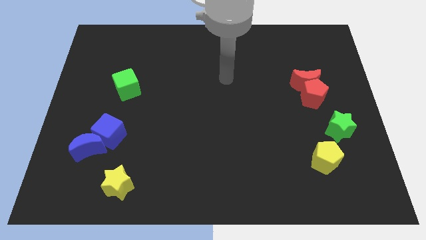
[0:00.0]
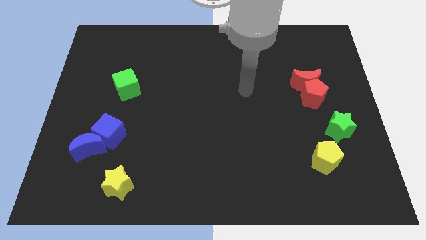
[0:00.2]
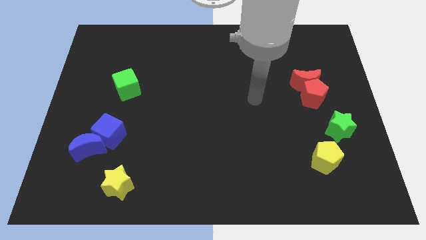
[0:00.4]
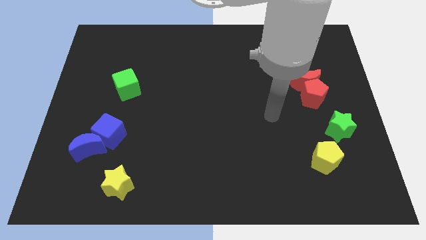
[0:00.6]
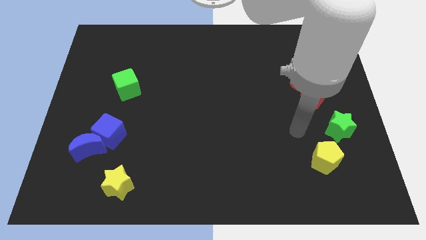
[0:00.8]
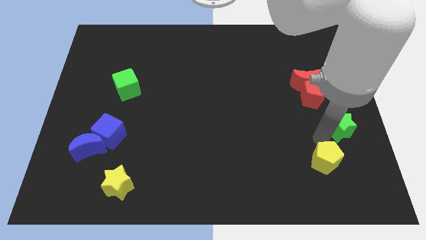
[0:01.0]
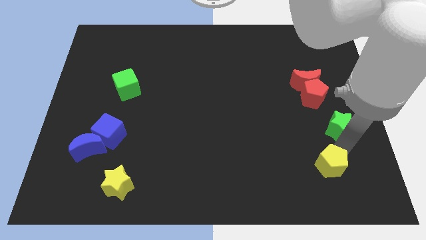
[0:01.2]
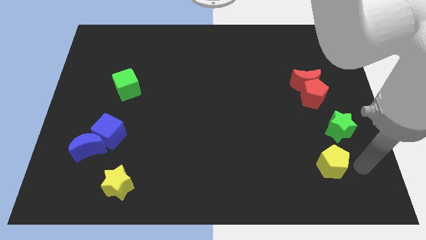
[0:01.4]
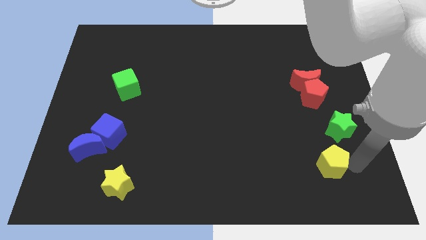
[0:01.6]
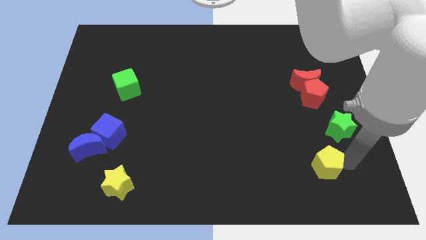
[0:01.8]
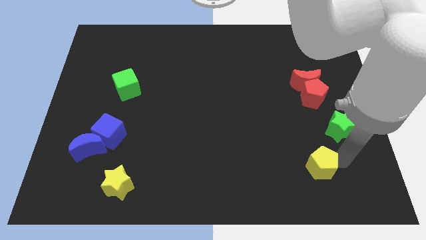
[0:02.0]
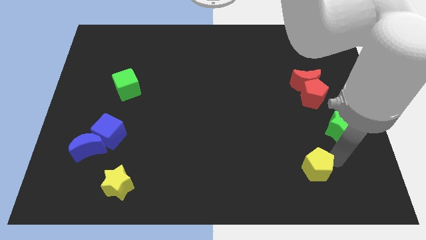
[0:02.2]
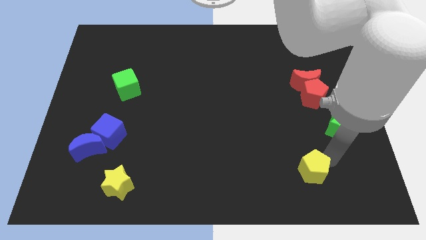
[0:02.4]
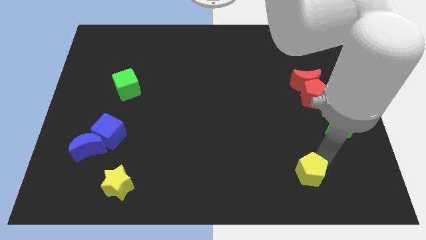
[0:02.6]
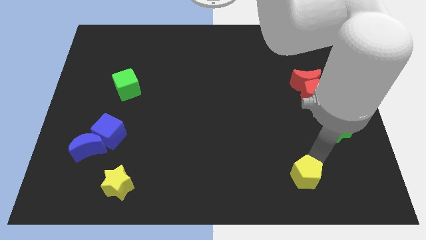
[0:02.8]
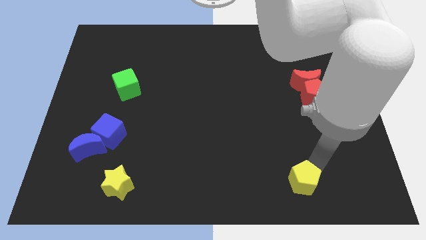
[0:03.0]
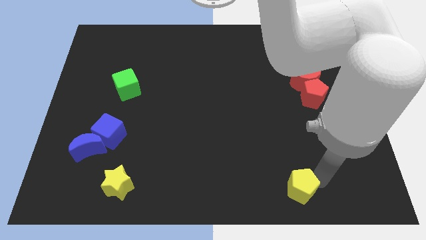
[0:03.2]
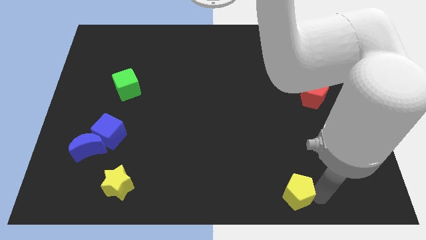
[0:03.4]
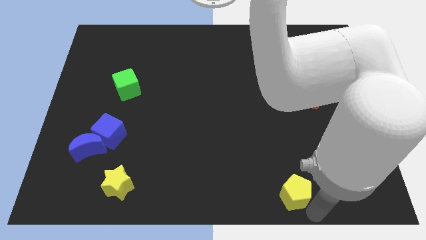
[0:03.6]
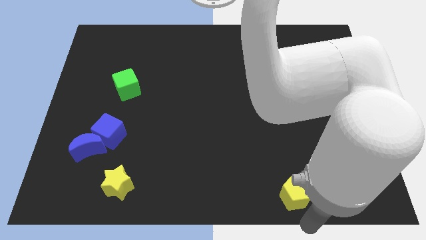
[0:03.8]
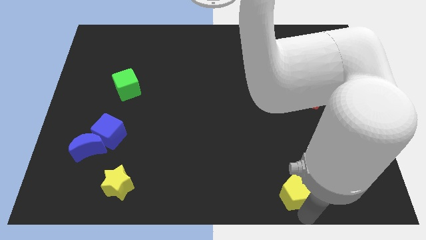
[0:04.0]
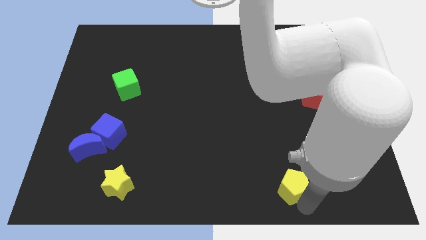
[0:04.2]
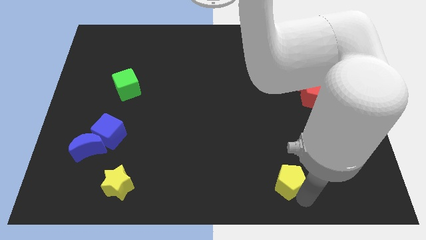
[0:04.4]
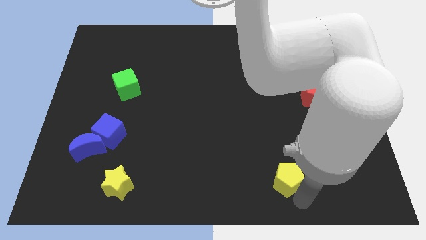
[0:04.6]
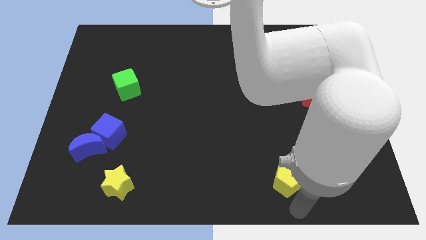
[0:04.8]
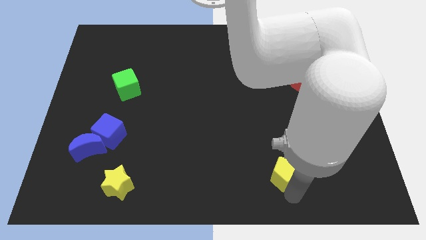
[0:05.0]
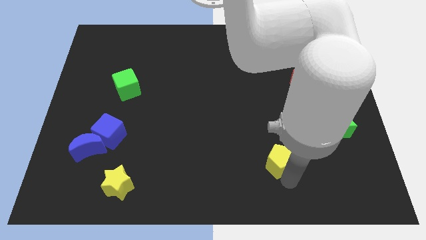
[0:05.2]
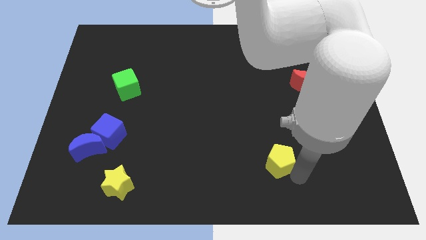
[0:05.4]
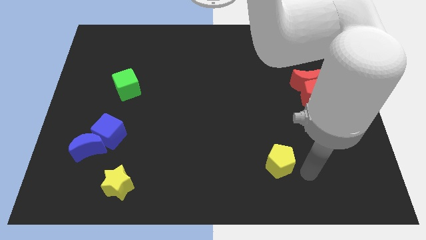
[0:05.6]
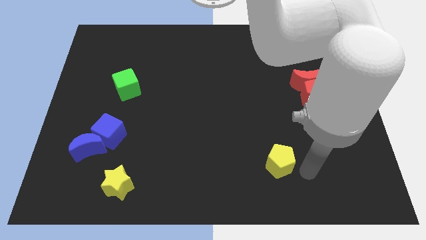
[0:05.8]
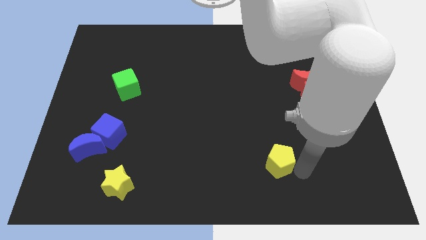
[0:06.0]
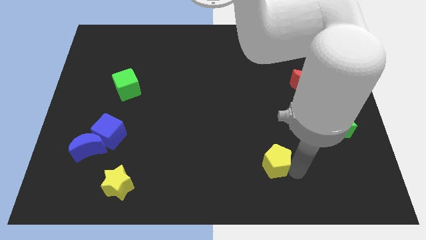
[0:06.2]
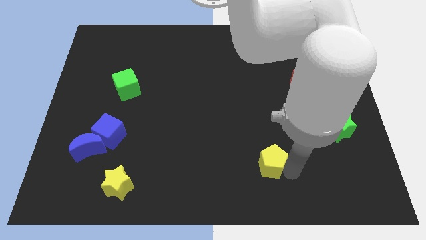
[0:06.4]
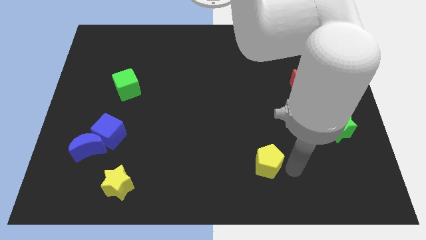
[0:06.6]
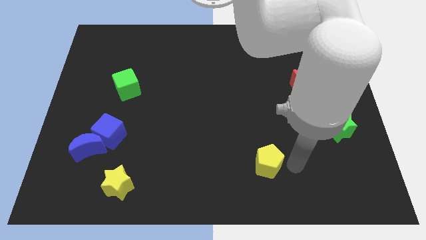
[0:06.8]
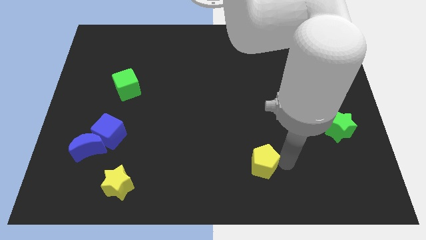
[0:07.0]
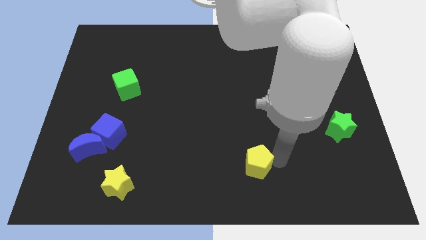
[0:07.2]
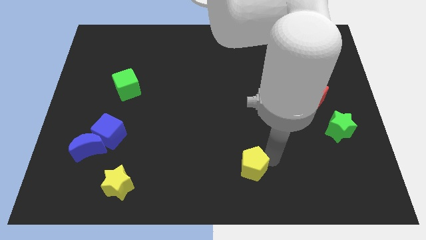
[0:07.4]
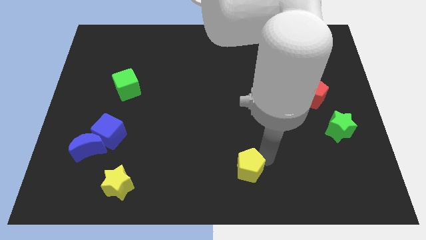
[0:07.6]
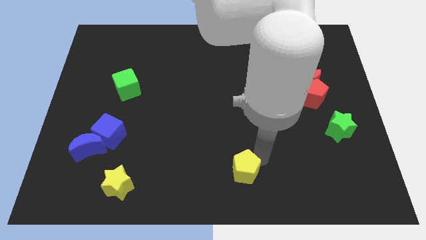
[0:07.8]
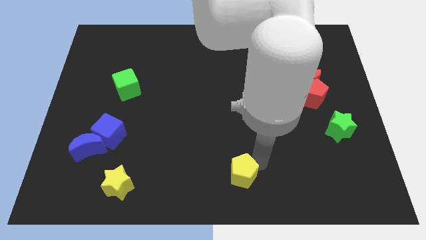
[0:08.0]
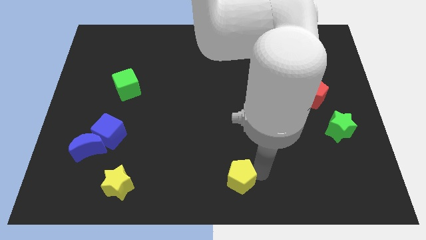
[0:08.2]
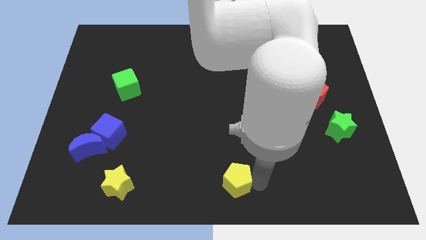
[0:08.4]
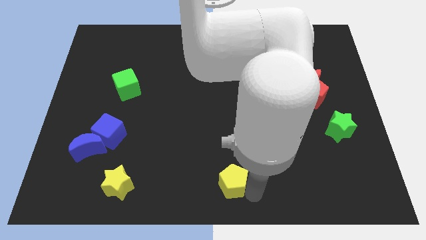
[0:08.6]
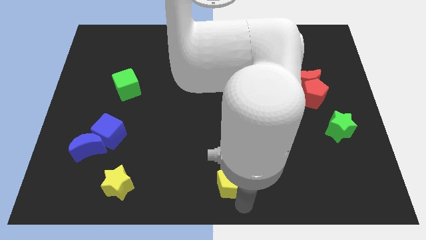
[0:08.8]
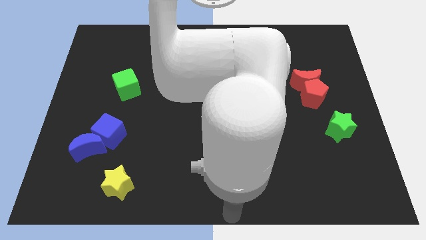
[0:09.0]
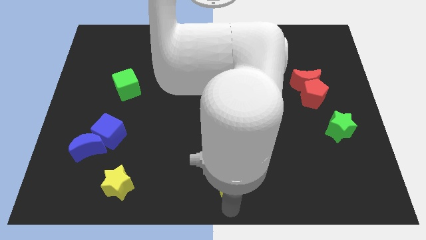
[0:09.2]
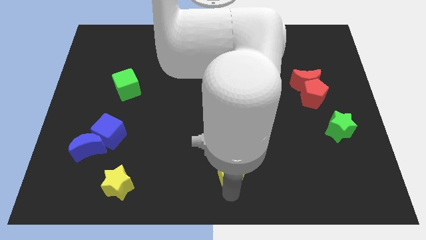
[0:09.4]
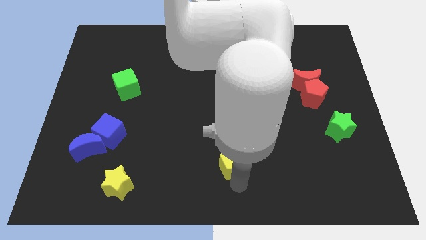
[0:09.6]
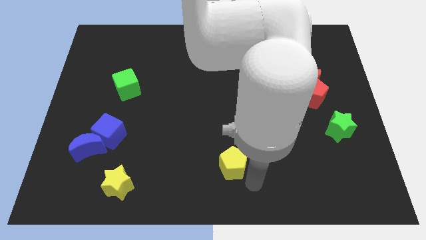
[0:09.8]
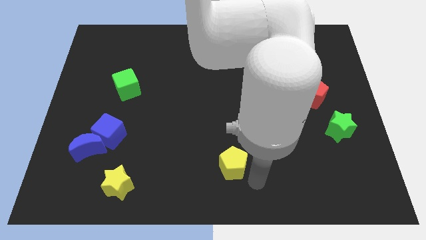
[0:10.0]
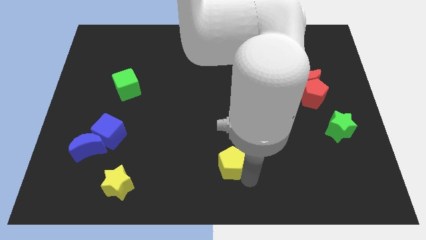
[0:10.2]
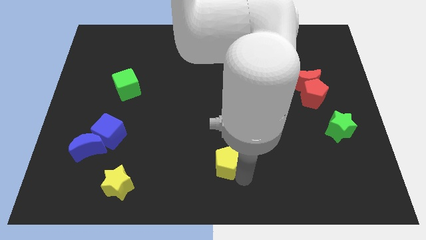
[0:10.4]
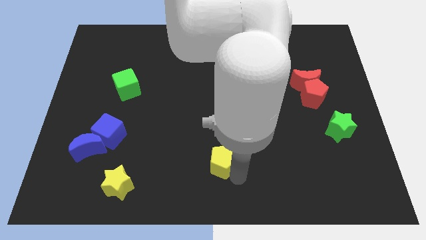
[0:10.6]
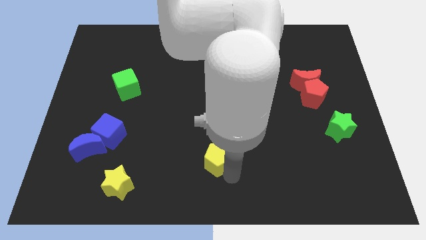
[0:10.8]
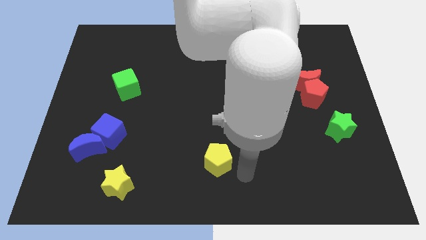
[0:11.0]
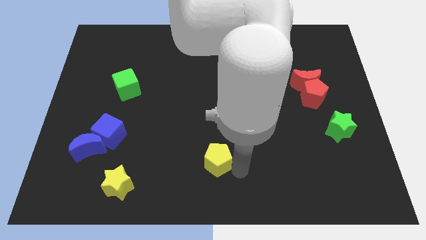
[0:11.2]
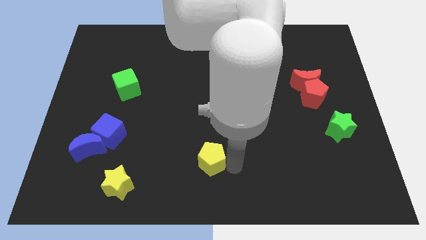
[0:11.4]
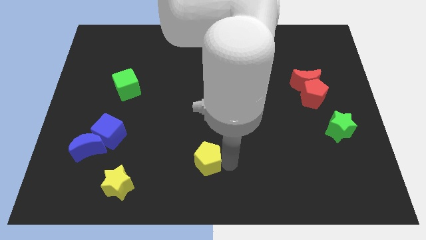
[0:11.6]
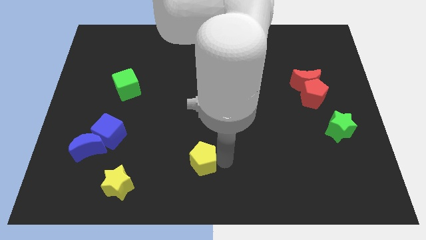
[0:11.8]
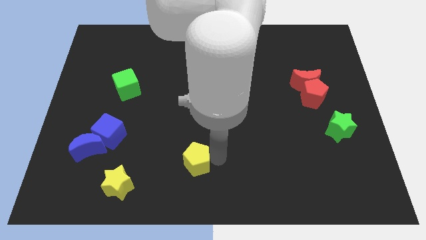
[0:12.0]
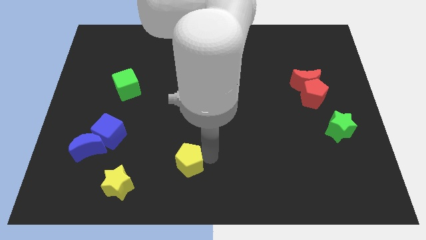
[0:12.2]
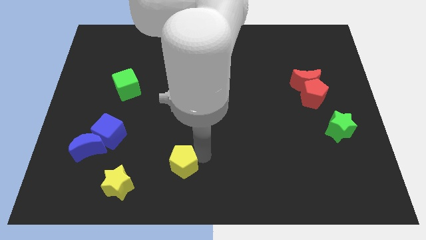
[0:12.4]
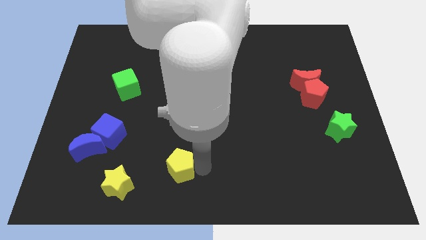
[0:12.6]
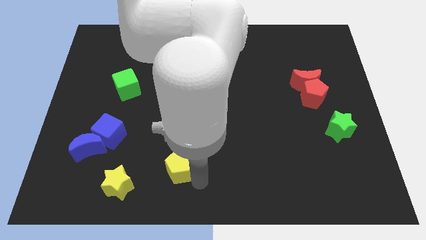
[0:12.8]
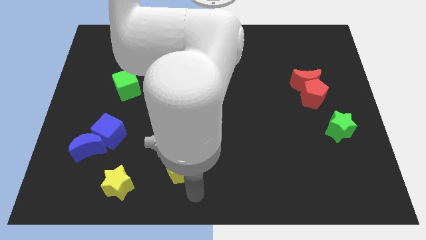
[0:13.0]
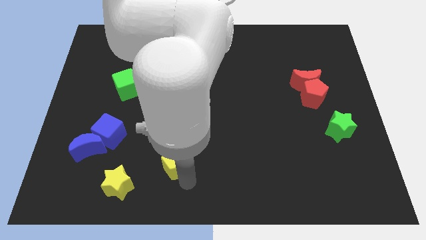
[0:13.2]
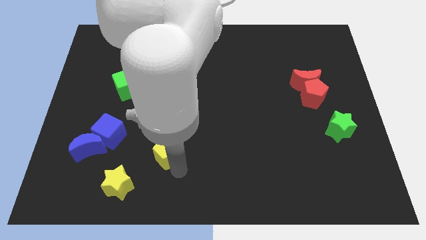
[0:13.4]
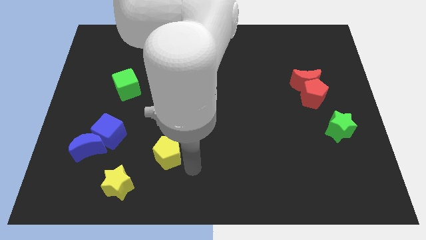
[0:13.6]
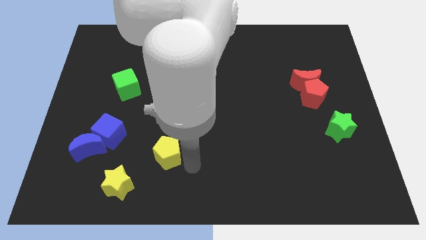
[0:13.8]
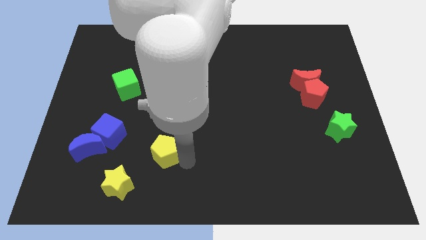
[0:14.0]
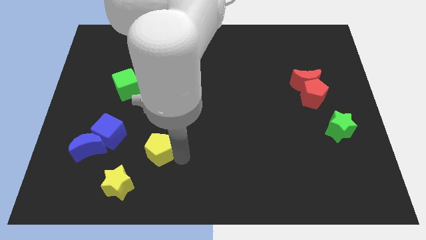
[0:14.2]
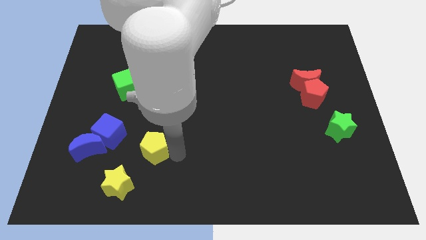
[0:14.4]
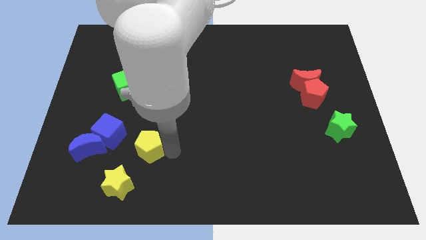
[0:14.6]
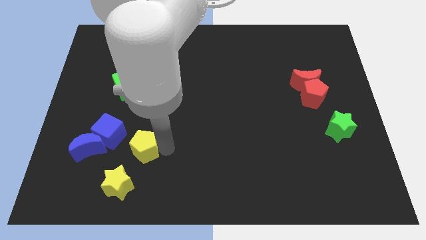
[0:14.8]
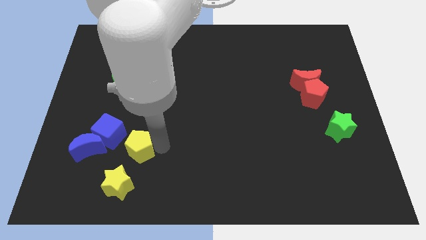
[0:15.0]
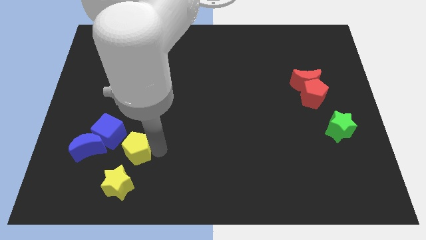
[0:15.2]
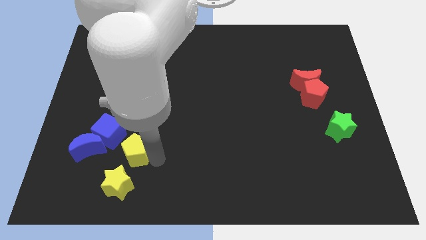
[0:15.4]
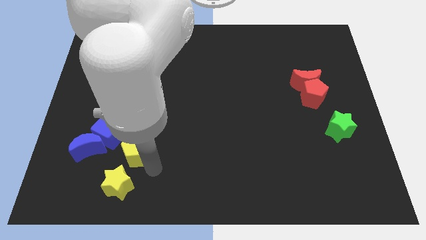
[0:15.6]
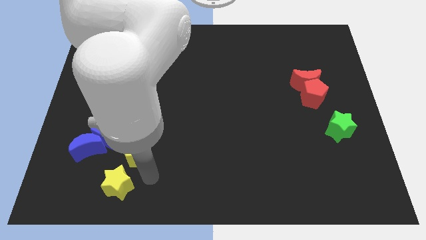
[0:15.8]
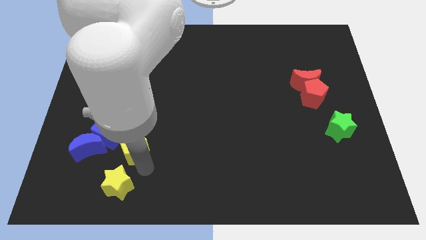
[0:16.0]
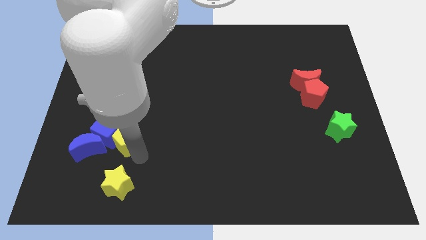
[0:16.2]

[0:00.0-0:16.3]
slide the yellow pentagon to the blue cube
